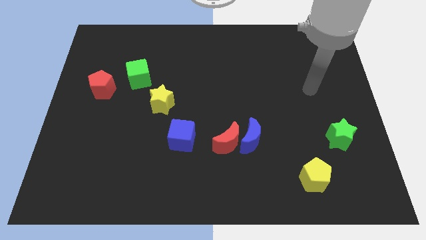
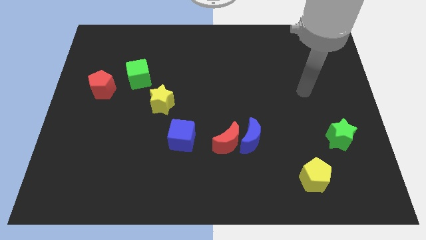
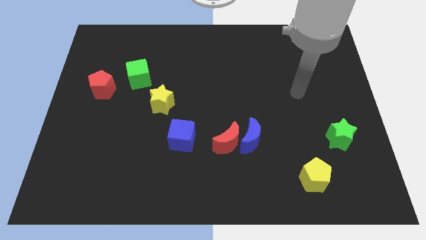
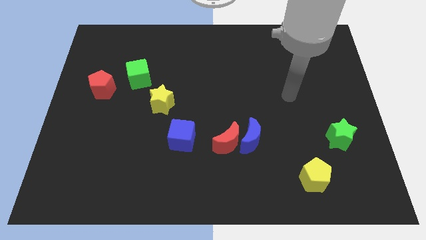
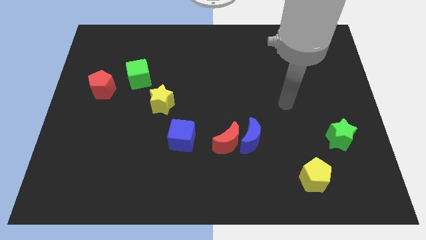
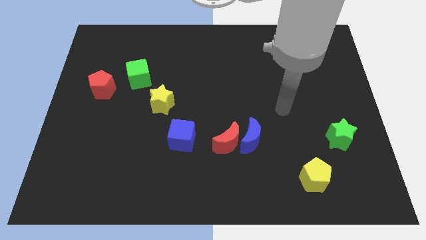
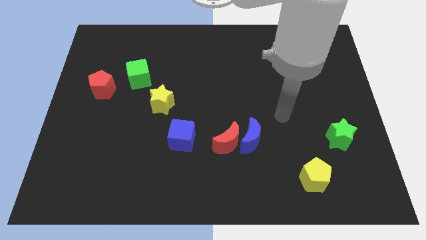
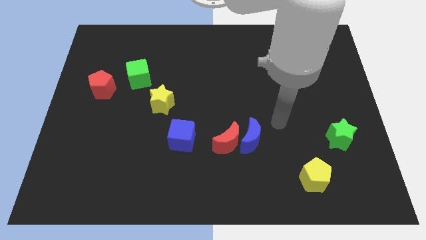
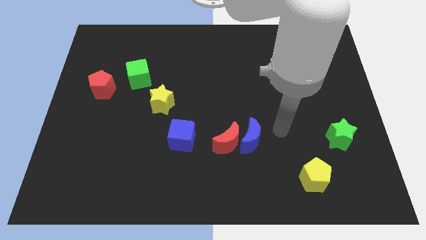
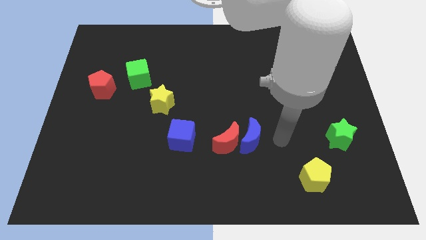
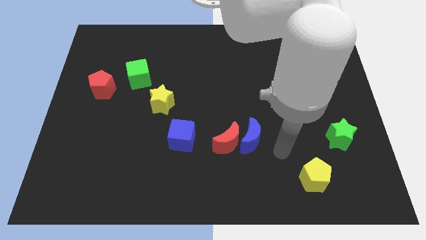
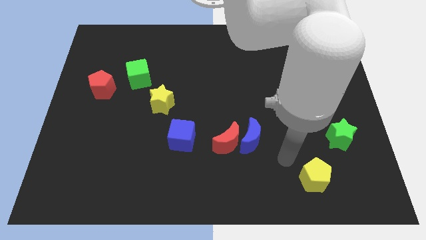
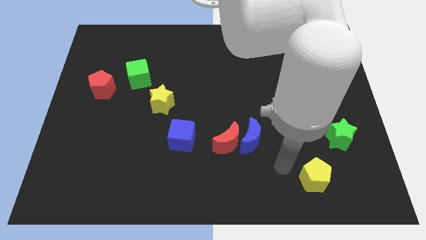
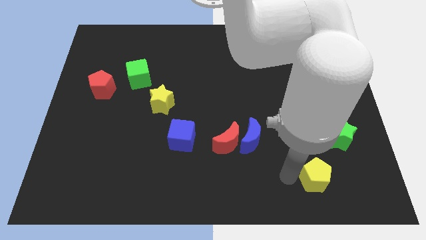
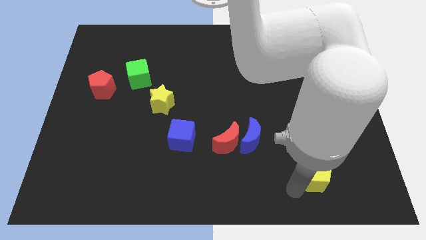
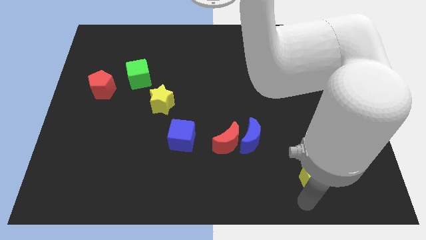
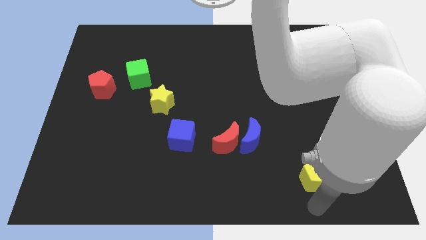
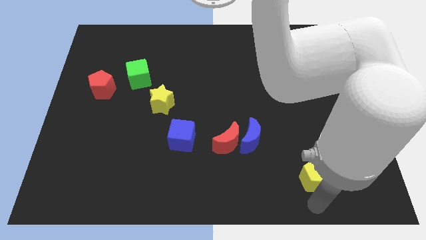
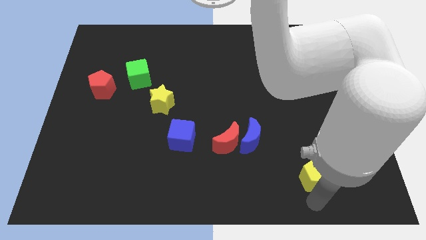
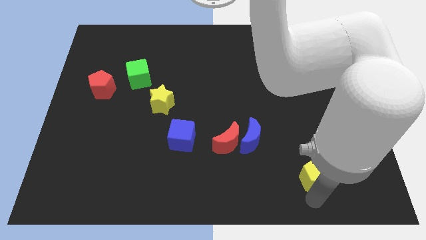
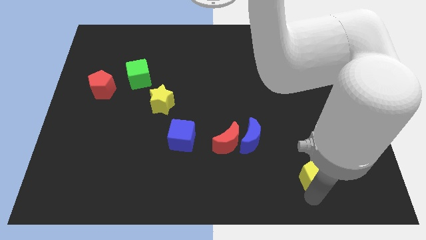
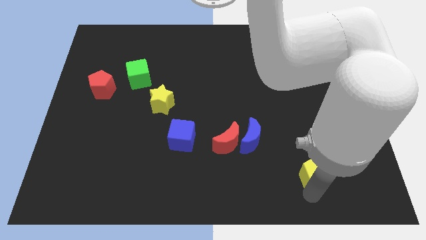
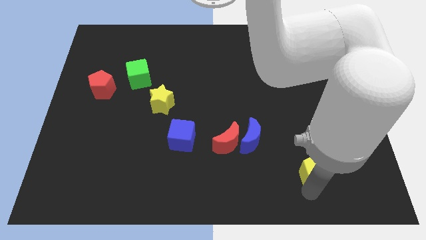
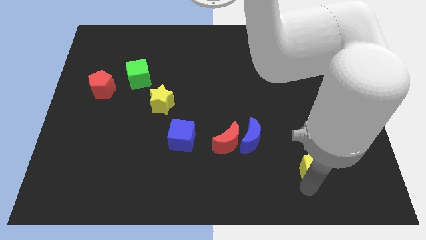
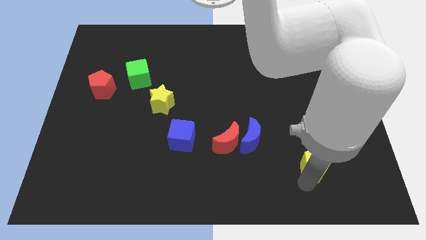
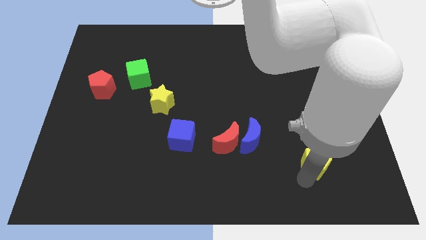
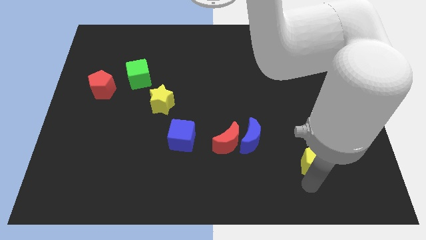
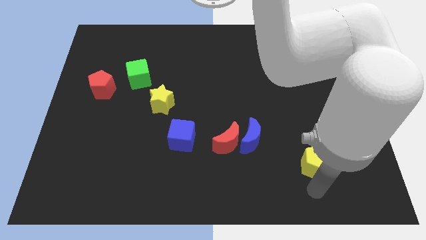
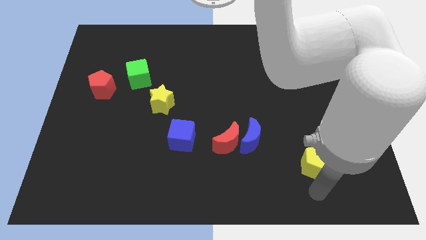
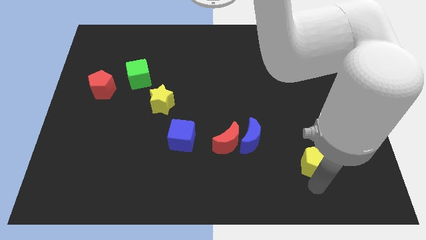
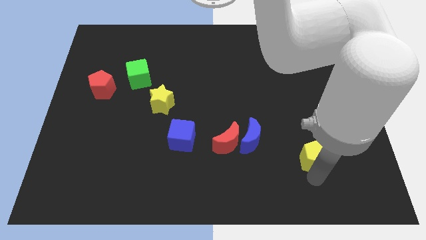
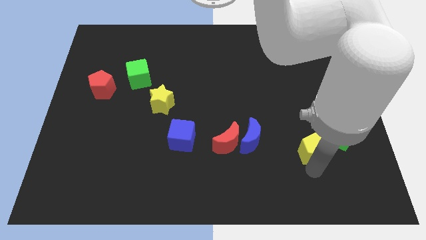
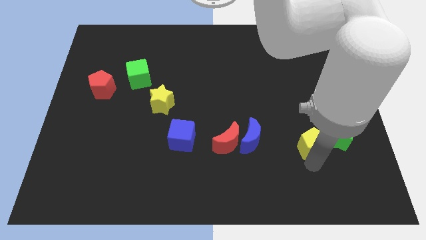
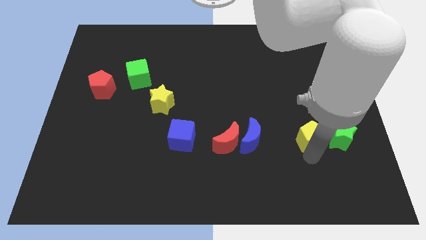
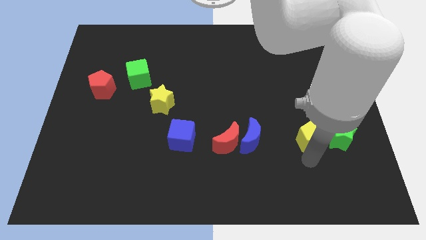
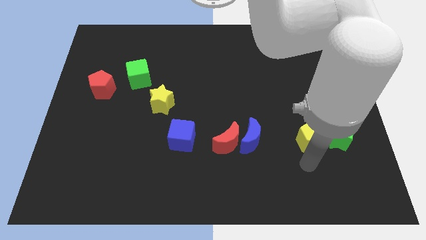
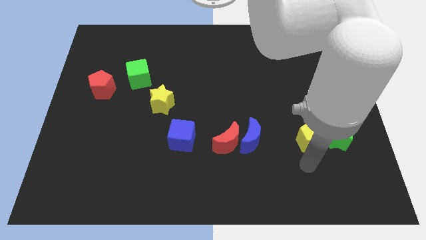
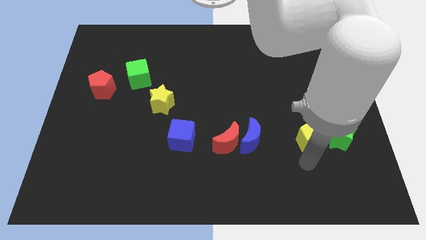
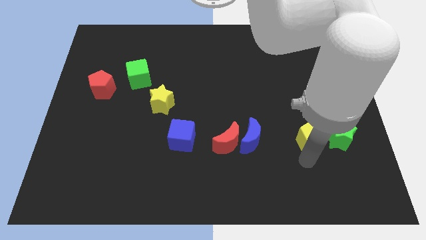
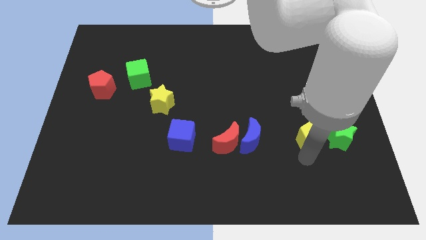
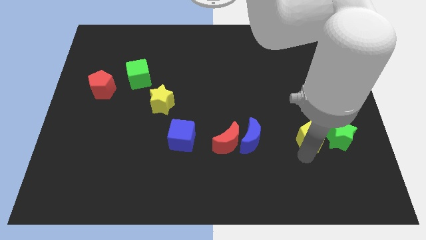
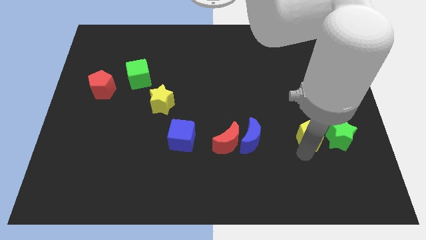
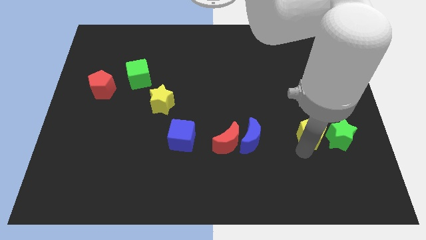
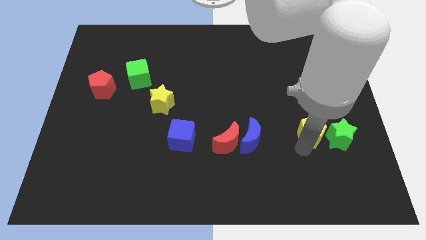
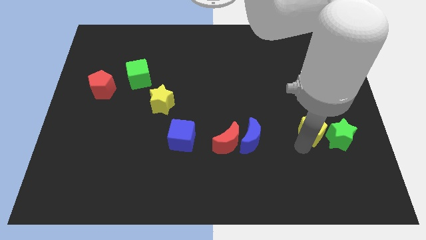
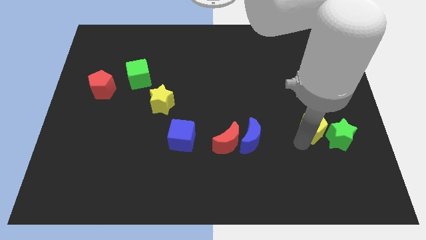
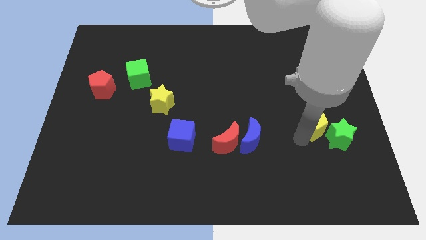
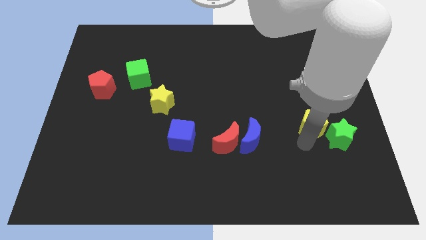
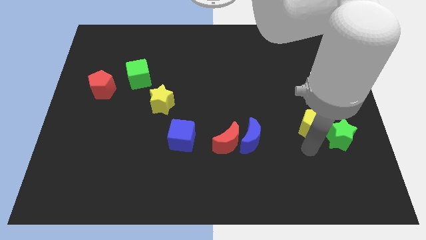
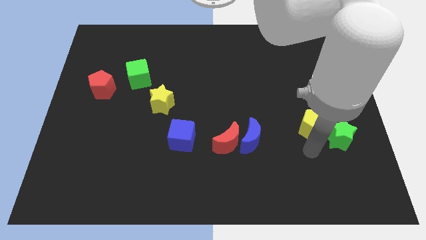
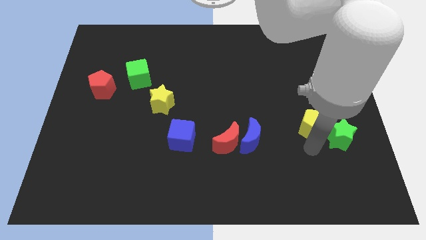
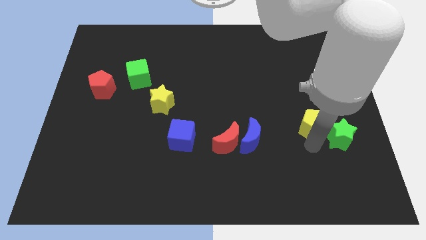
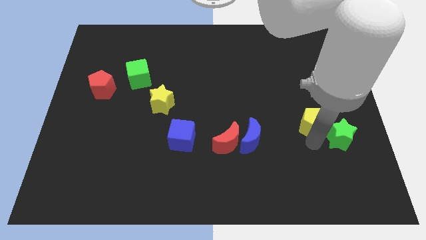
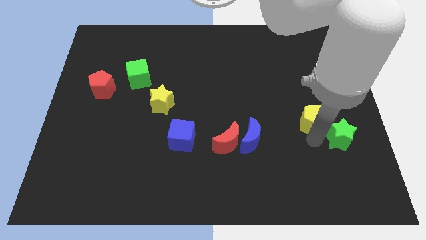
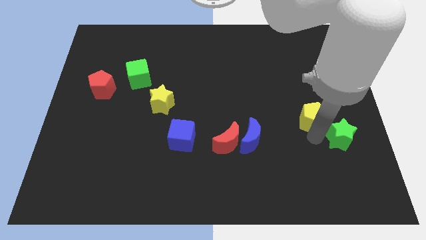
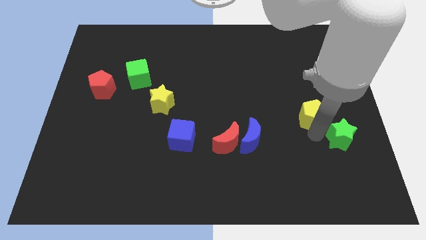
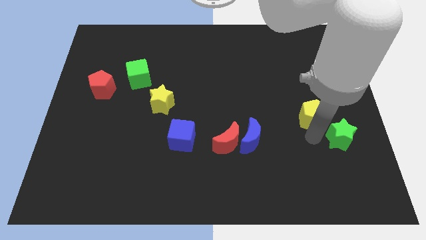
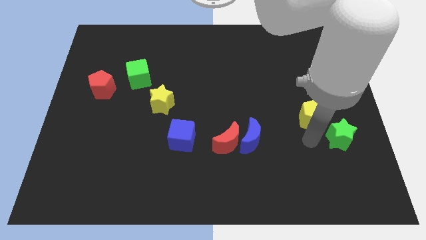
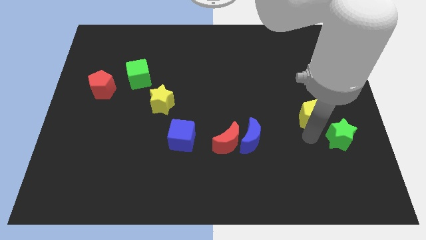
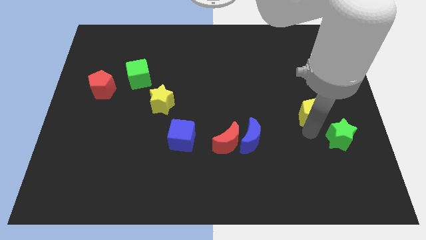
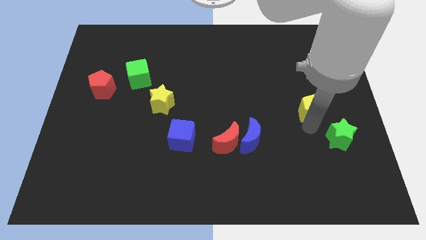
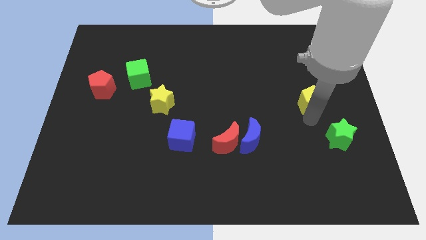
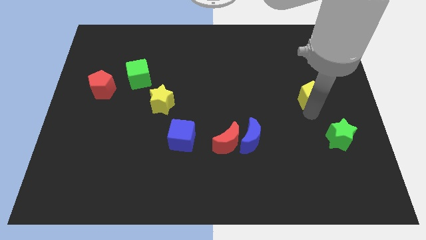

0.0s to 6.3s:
slide the yellow pentagon up

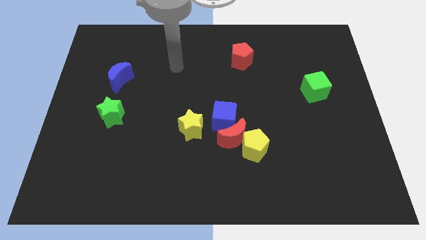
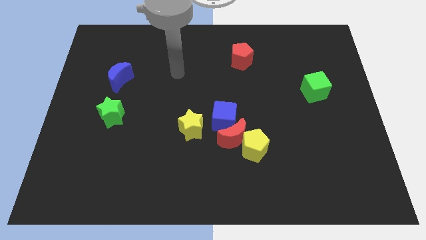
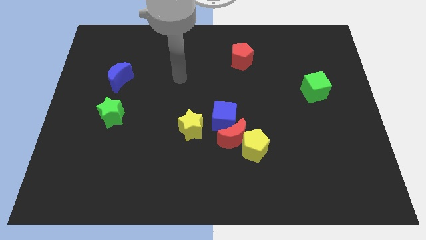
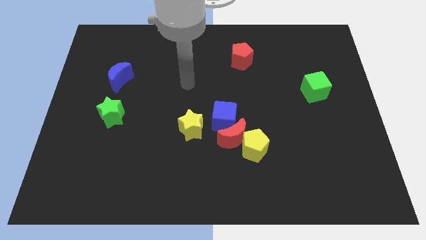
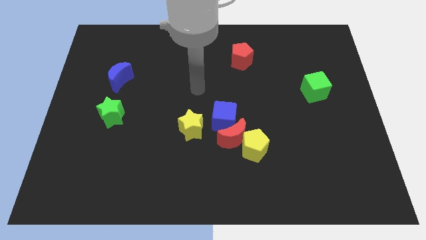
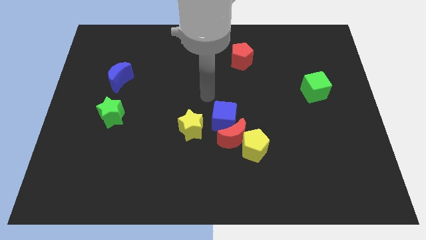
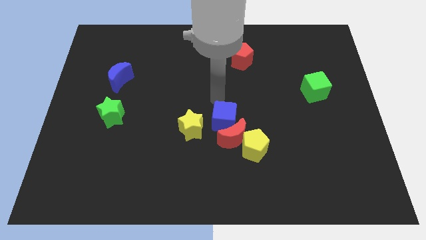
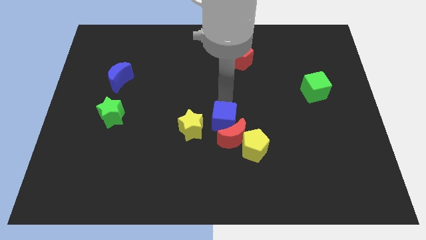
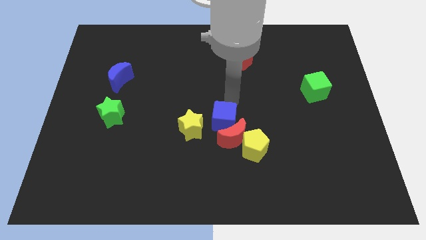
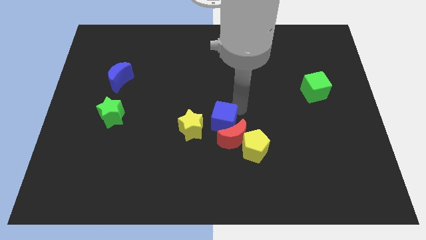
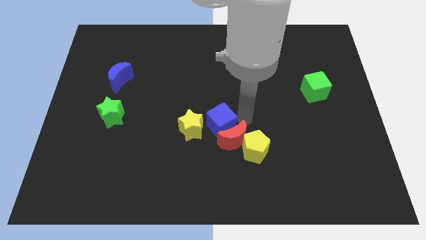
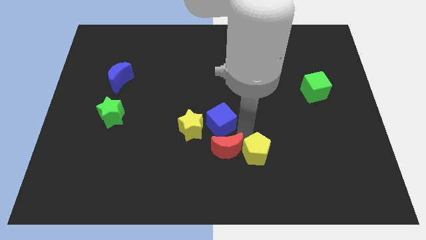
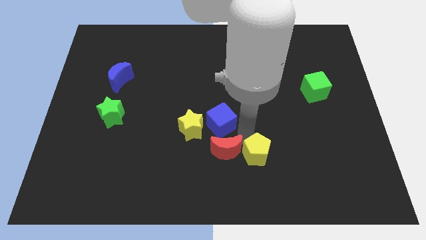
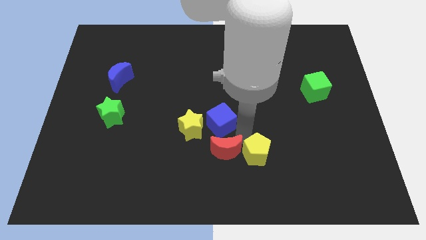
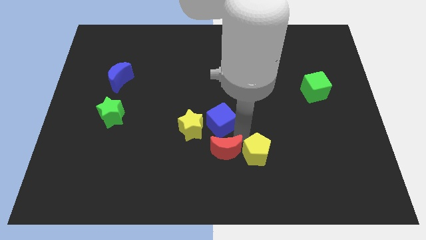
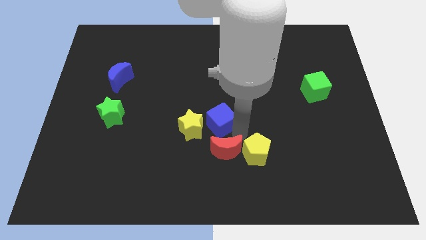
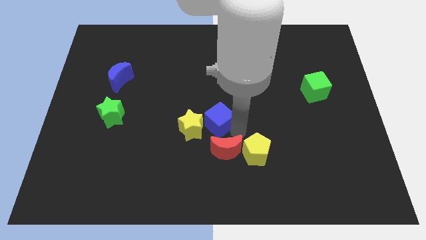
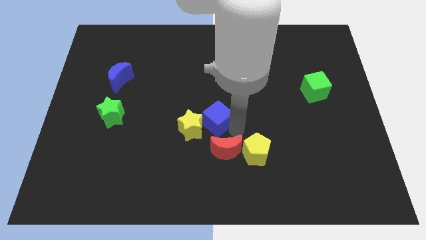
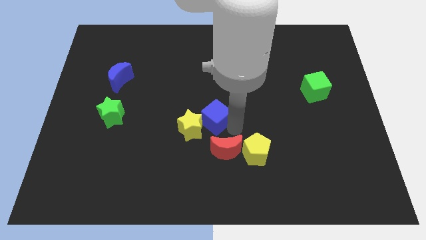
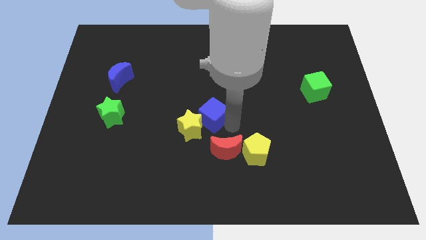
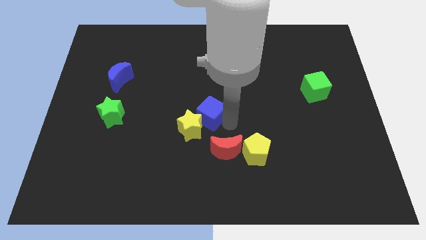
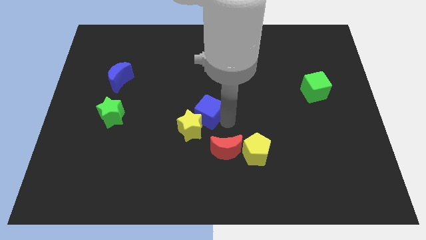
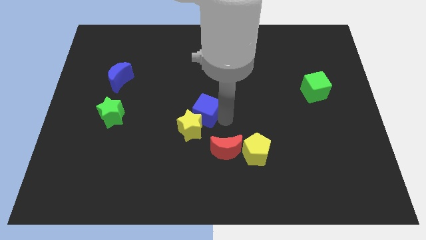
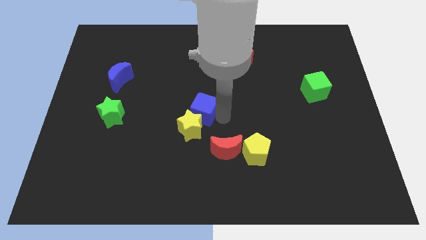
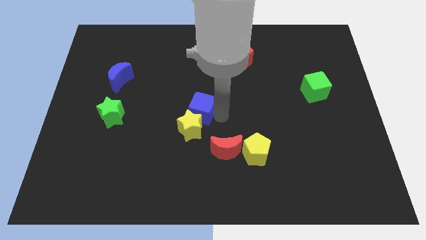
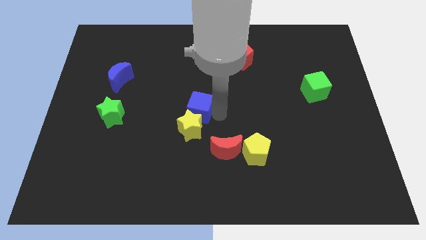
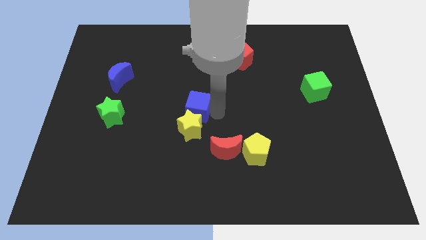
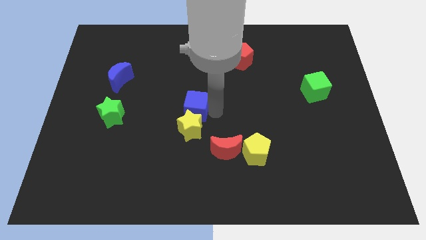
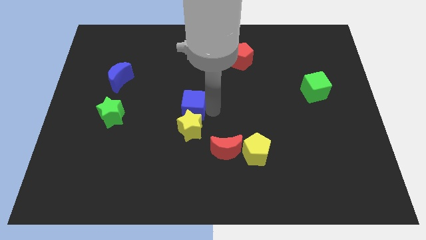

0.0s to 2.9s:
move the blue cube left a bit
